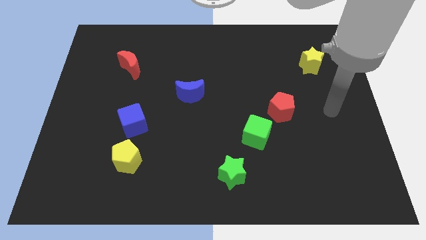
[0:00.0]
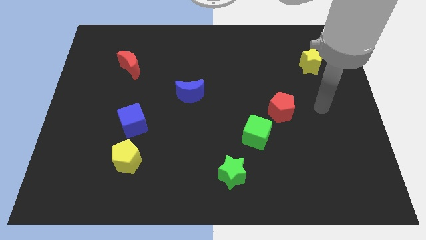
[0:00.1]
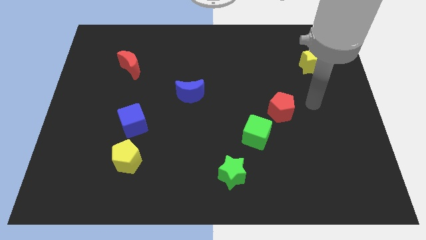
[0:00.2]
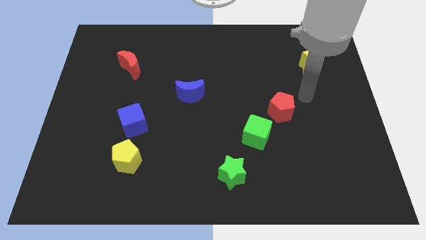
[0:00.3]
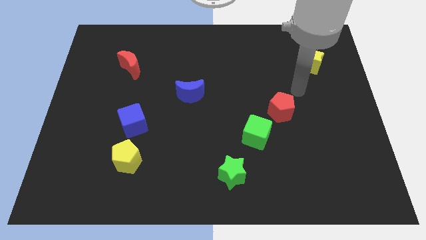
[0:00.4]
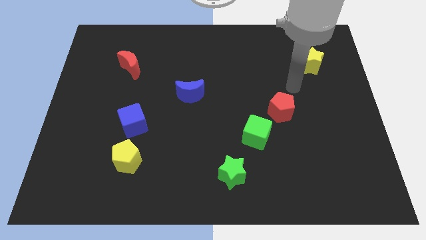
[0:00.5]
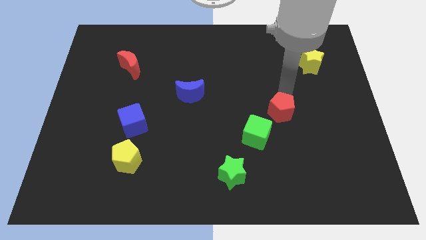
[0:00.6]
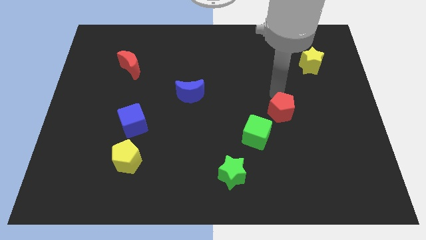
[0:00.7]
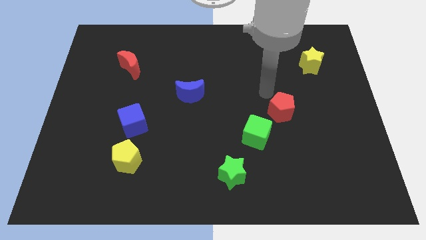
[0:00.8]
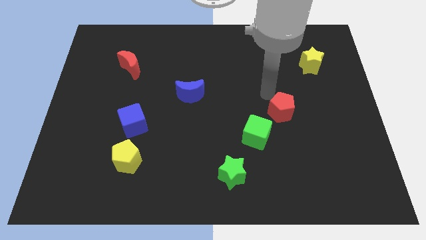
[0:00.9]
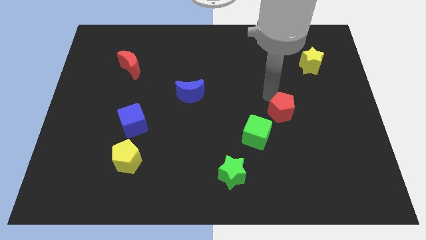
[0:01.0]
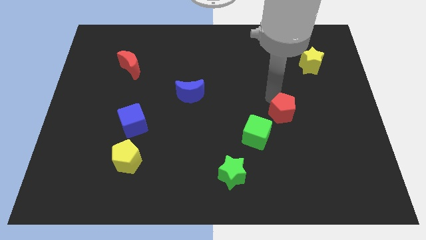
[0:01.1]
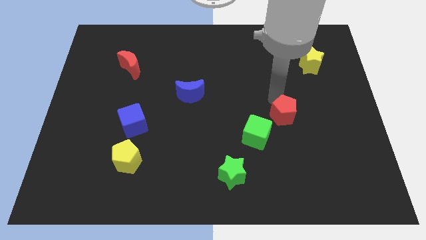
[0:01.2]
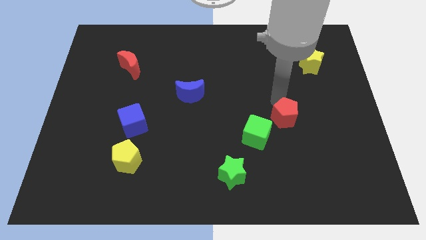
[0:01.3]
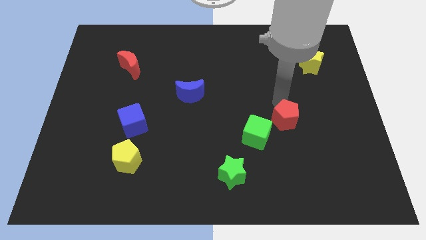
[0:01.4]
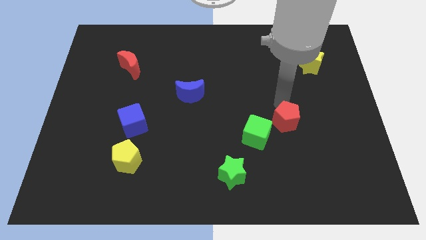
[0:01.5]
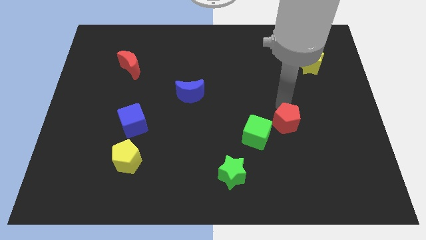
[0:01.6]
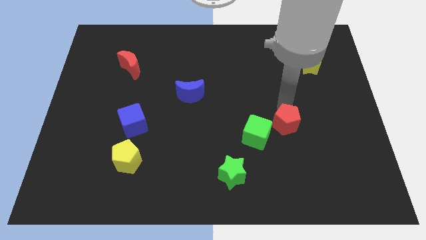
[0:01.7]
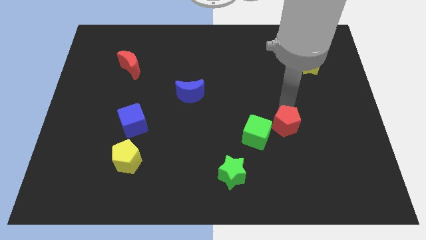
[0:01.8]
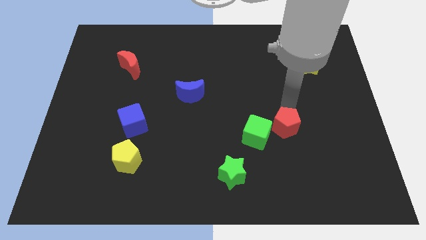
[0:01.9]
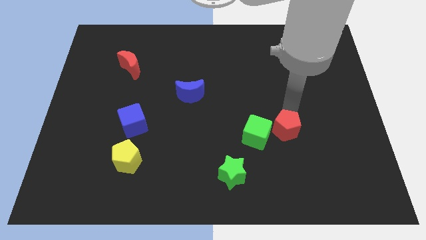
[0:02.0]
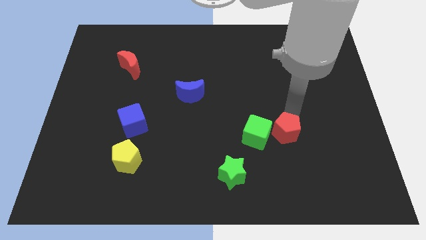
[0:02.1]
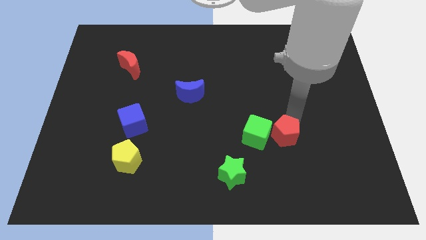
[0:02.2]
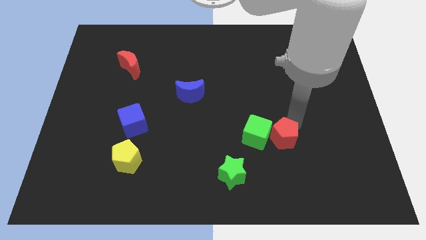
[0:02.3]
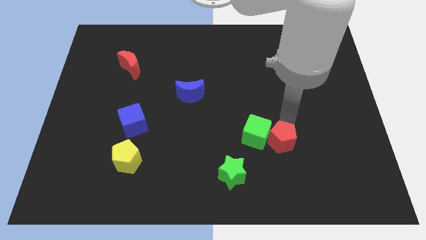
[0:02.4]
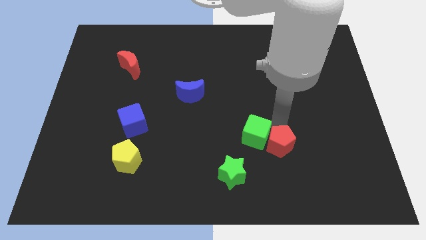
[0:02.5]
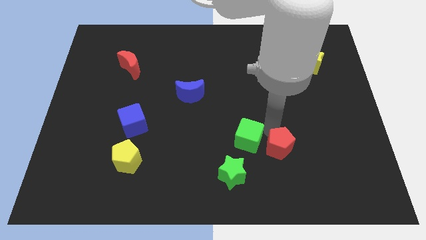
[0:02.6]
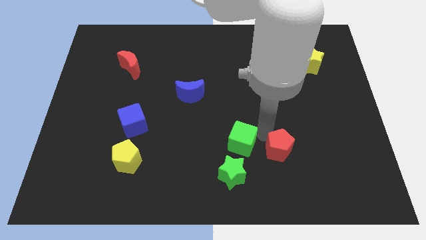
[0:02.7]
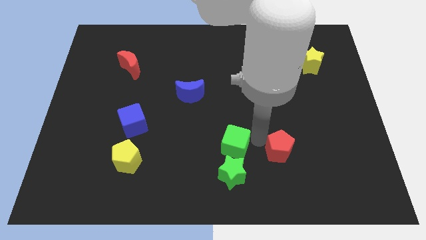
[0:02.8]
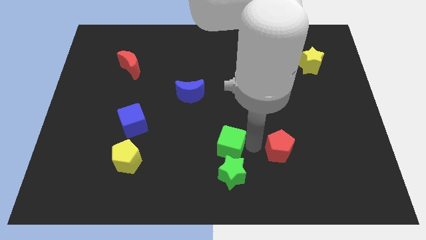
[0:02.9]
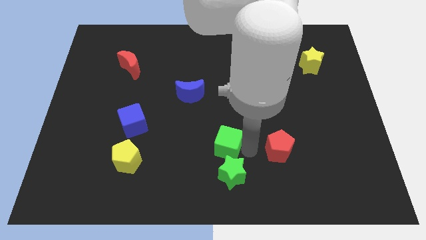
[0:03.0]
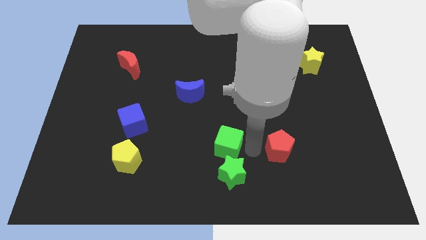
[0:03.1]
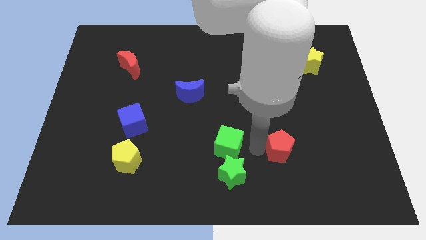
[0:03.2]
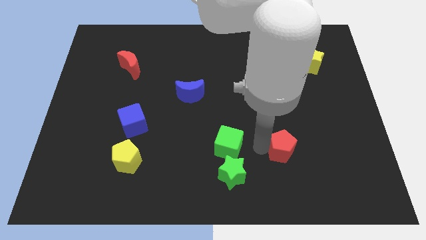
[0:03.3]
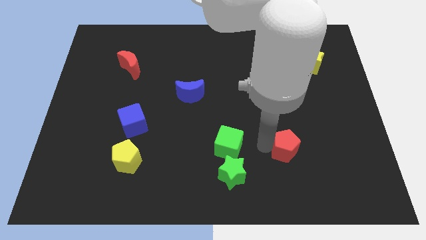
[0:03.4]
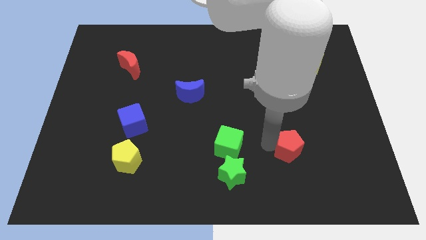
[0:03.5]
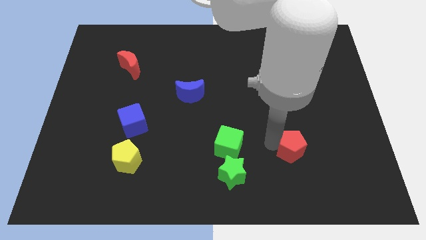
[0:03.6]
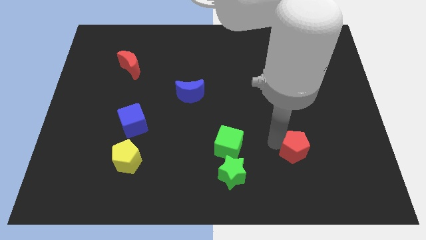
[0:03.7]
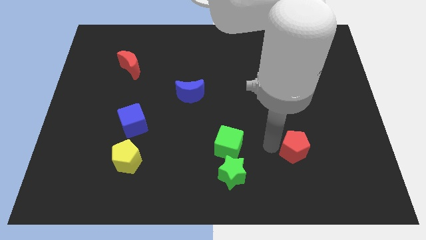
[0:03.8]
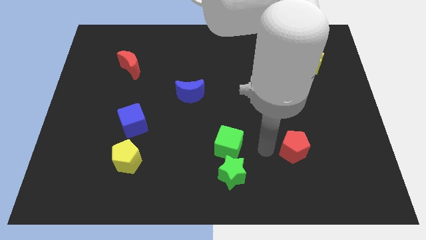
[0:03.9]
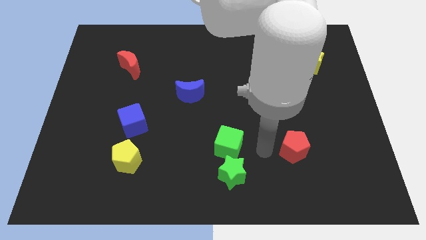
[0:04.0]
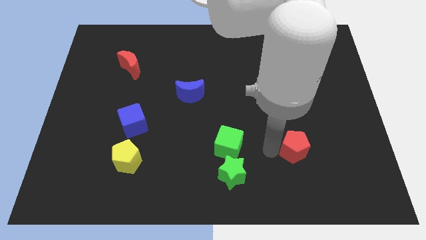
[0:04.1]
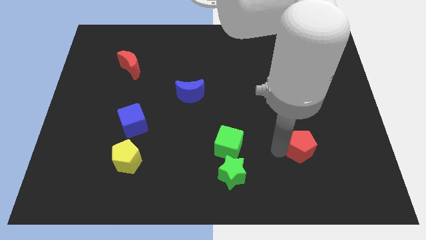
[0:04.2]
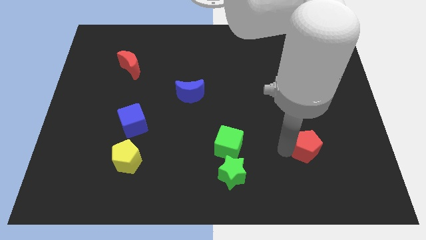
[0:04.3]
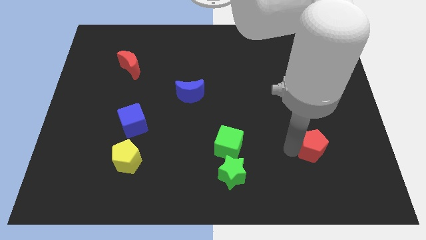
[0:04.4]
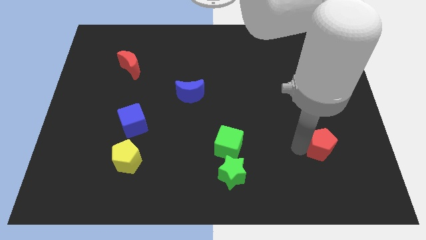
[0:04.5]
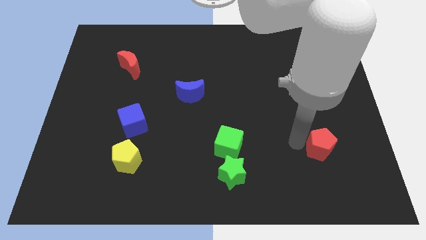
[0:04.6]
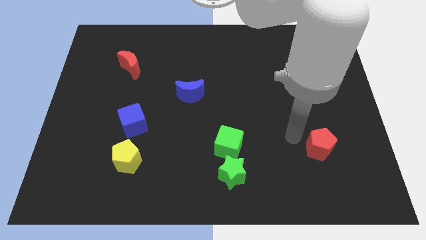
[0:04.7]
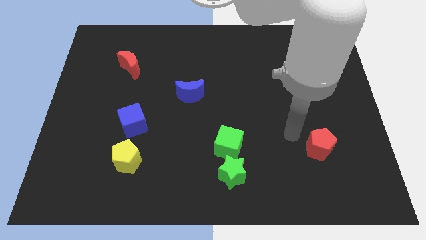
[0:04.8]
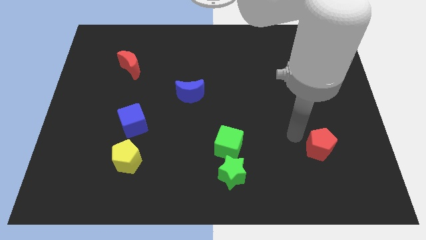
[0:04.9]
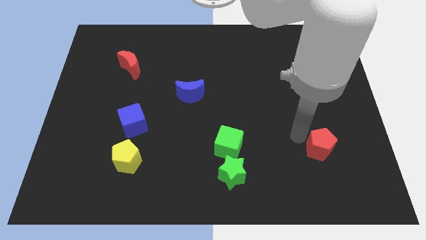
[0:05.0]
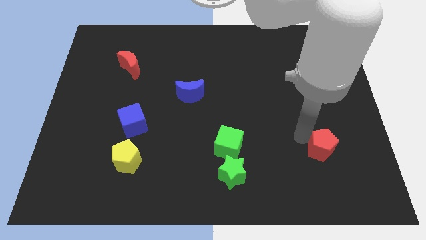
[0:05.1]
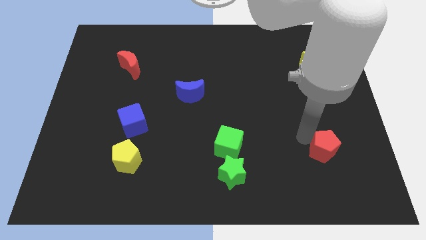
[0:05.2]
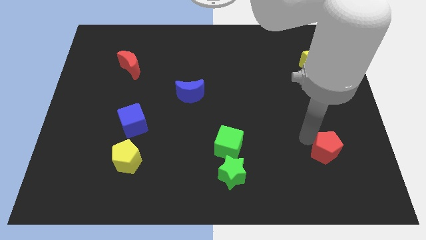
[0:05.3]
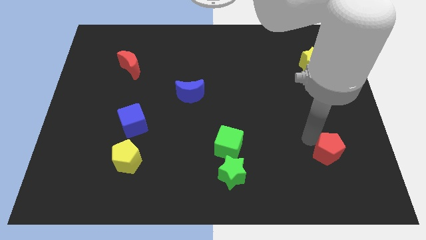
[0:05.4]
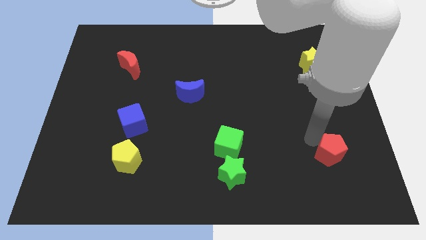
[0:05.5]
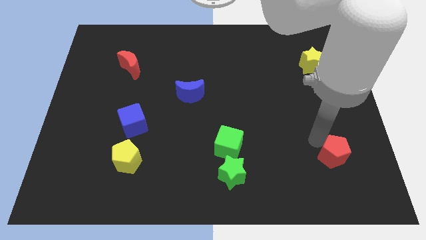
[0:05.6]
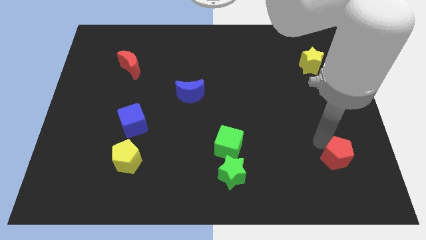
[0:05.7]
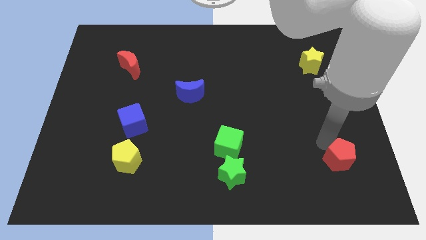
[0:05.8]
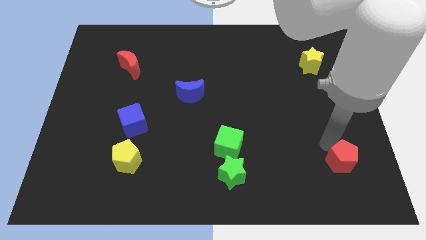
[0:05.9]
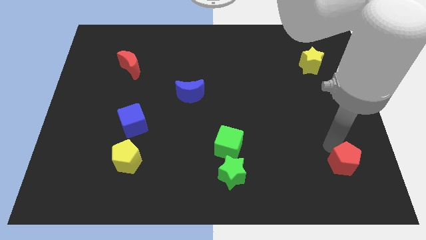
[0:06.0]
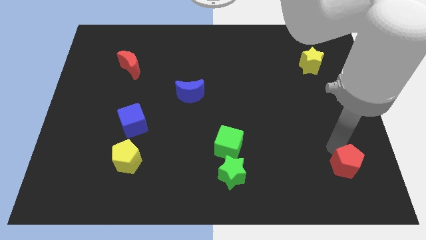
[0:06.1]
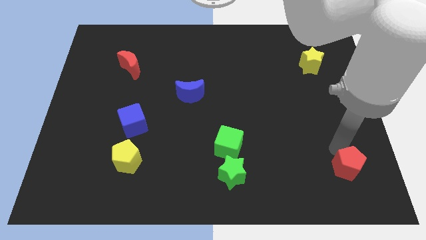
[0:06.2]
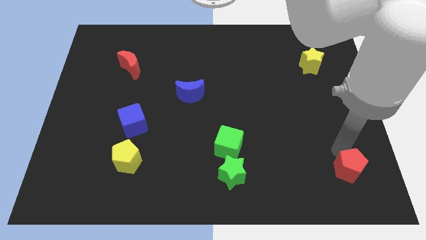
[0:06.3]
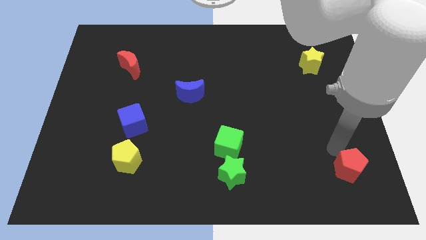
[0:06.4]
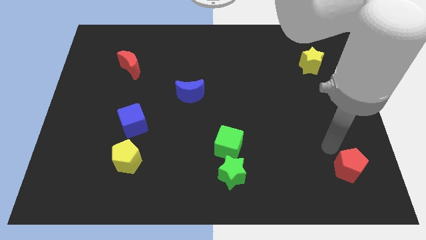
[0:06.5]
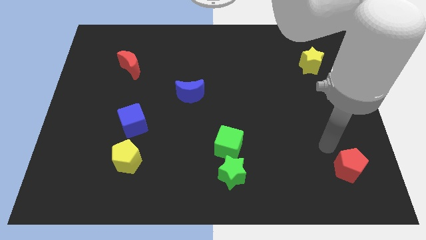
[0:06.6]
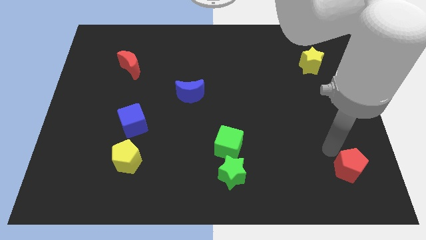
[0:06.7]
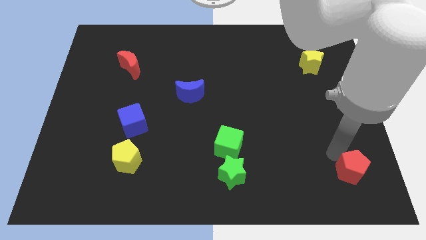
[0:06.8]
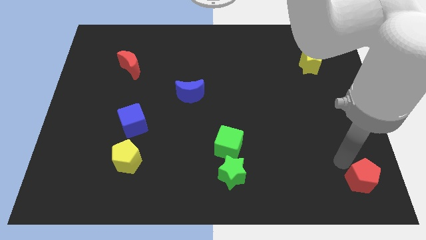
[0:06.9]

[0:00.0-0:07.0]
move the red pentagon to the lower right corner

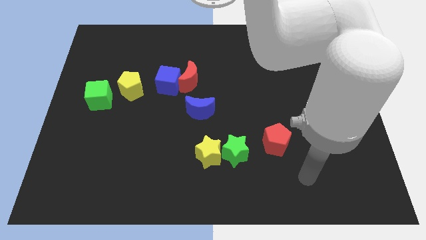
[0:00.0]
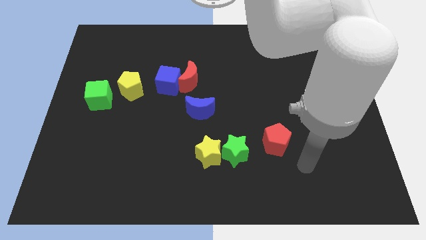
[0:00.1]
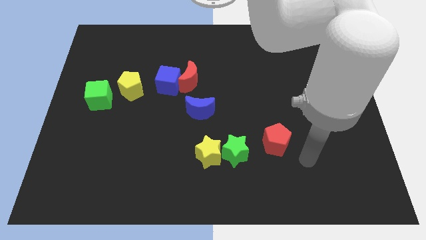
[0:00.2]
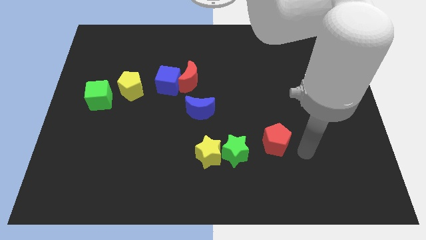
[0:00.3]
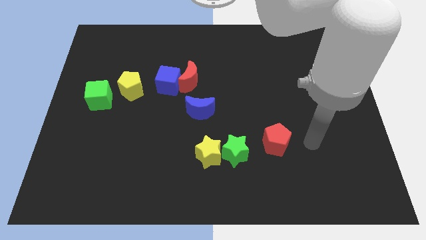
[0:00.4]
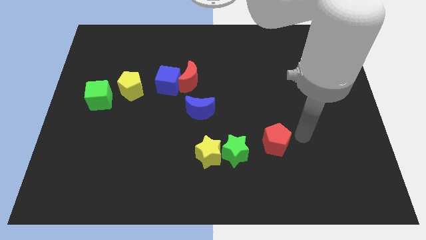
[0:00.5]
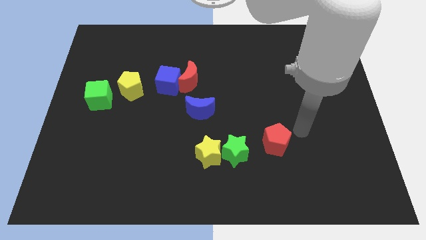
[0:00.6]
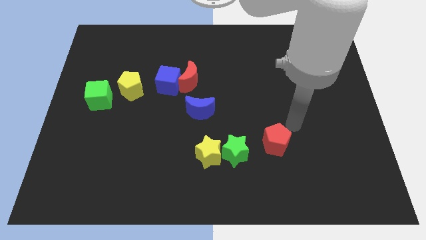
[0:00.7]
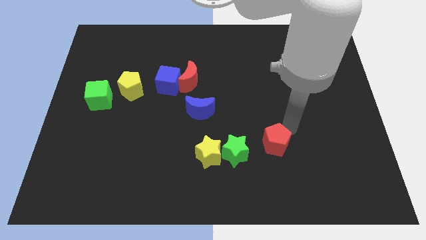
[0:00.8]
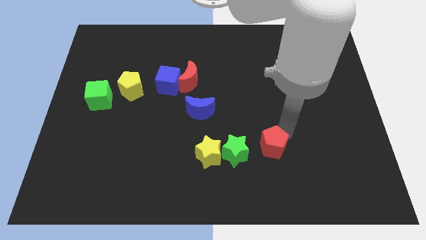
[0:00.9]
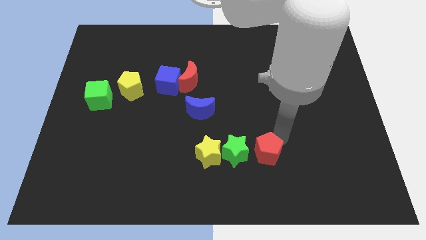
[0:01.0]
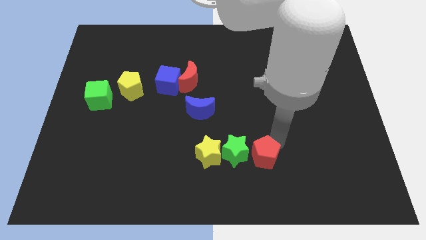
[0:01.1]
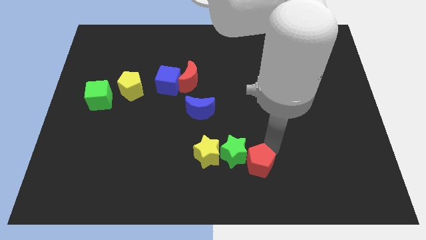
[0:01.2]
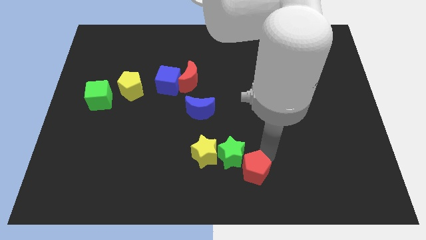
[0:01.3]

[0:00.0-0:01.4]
slide the red pentagon to the bottom side
